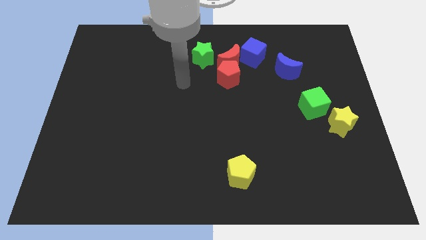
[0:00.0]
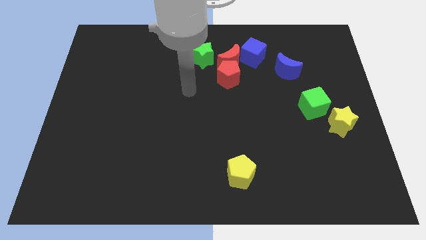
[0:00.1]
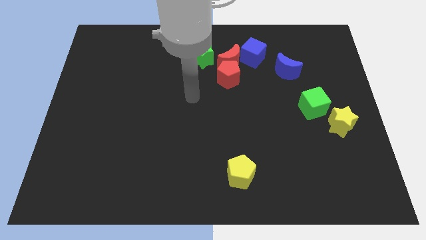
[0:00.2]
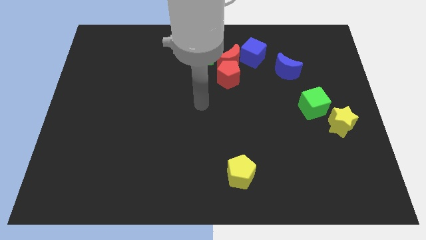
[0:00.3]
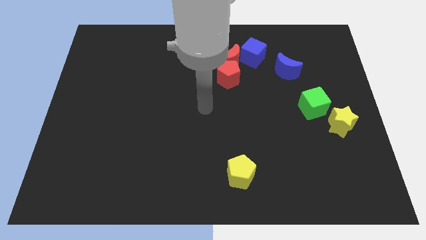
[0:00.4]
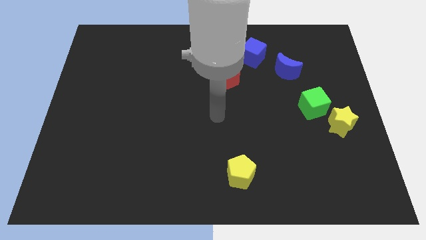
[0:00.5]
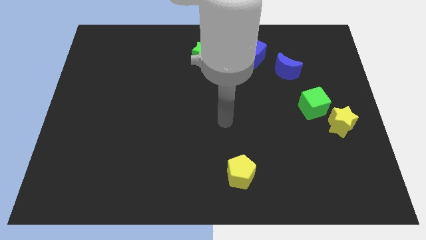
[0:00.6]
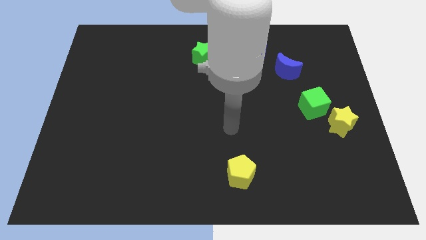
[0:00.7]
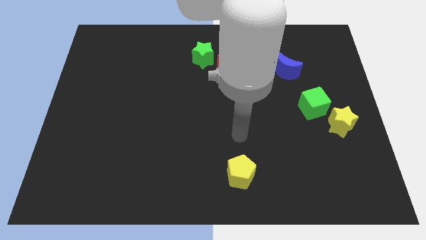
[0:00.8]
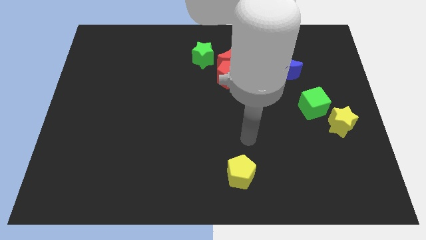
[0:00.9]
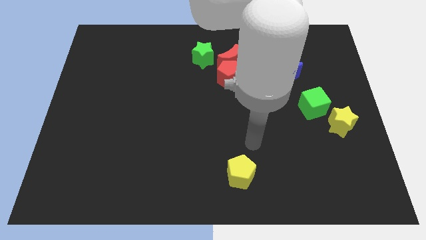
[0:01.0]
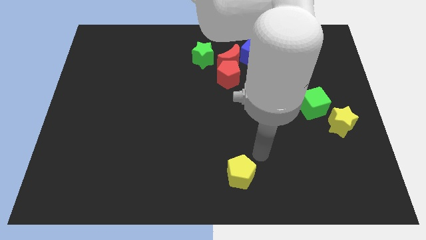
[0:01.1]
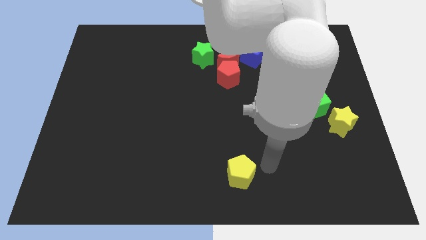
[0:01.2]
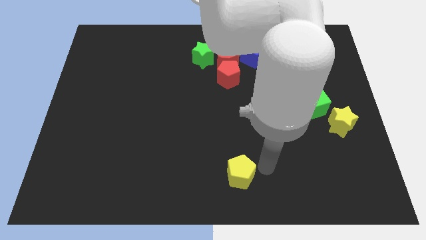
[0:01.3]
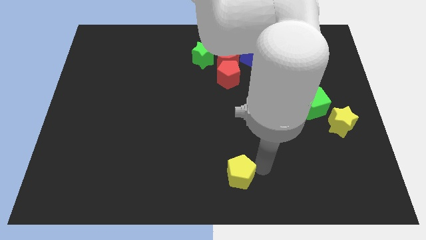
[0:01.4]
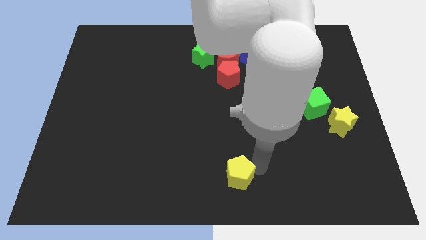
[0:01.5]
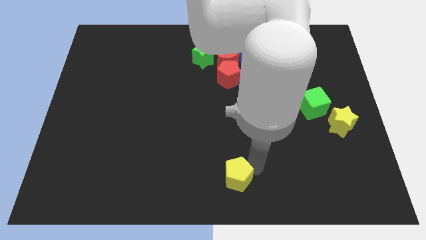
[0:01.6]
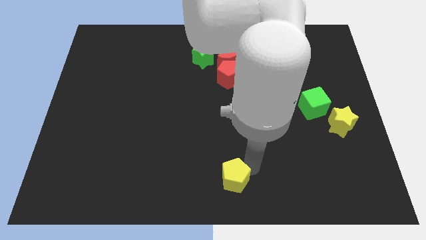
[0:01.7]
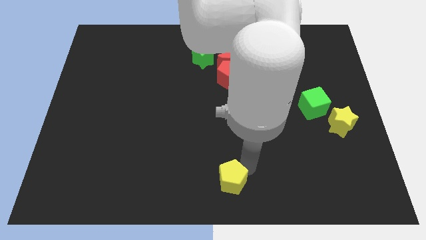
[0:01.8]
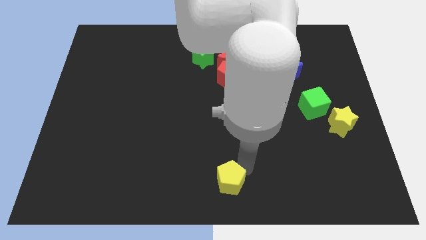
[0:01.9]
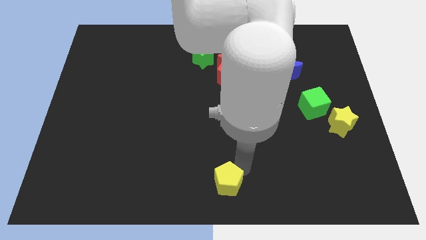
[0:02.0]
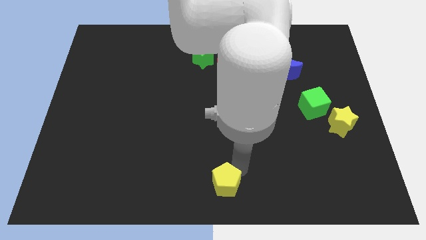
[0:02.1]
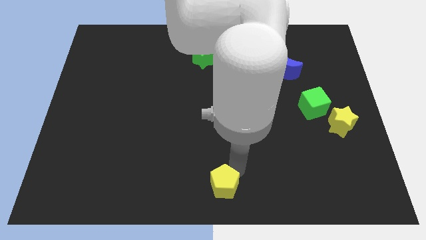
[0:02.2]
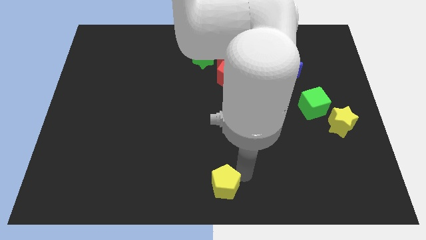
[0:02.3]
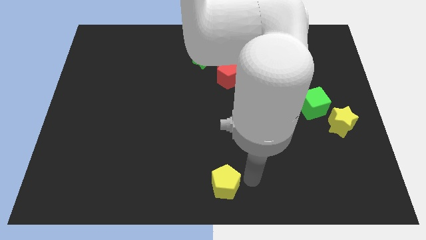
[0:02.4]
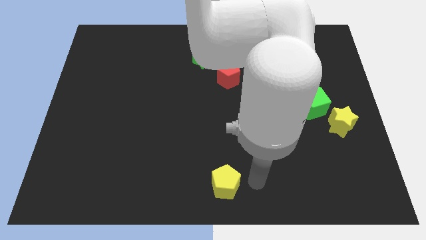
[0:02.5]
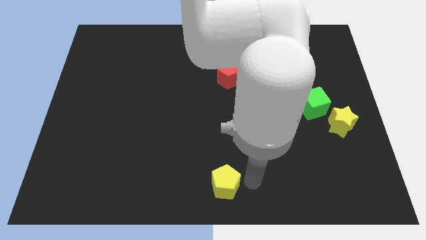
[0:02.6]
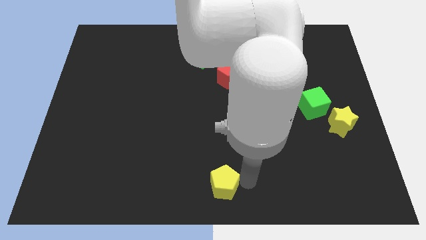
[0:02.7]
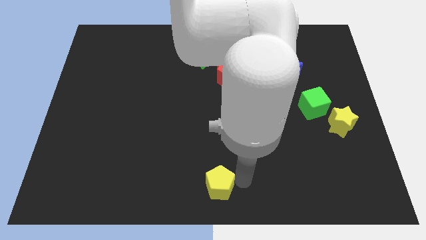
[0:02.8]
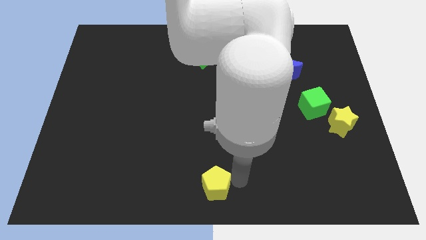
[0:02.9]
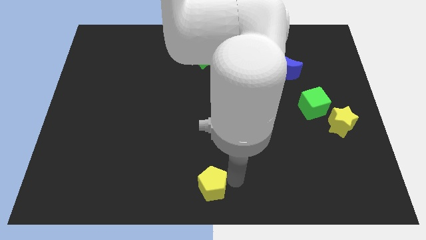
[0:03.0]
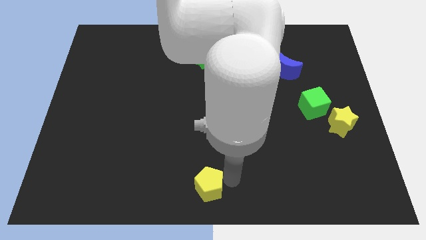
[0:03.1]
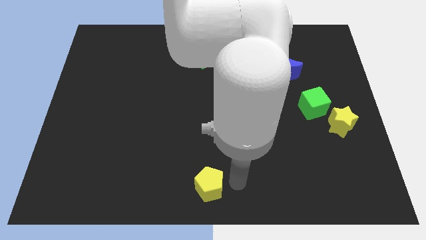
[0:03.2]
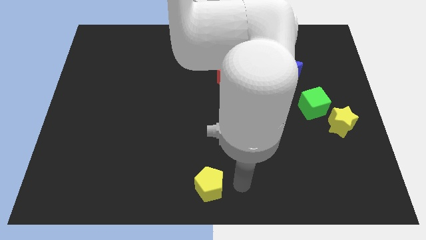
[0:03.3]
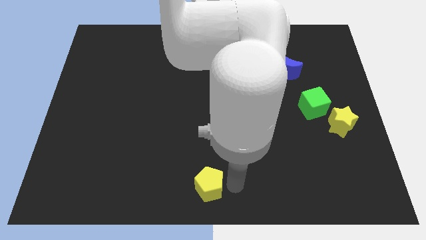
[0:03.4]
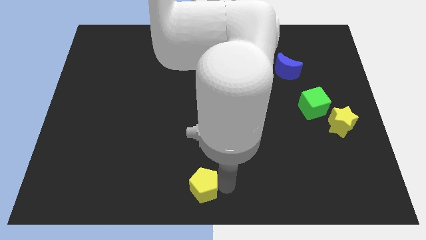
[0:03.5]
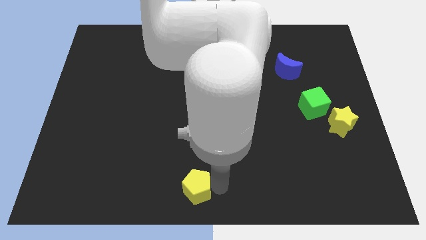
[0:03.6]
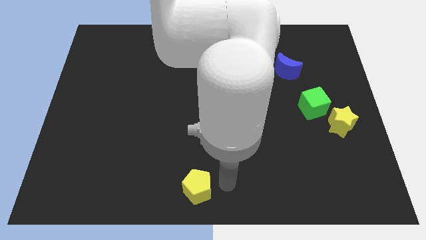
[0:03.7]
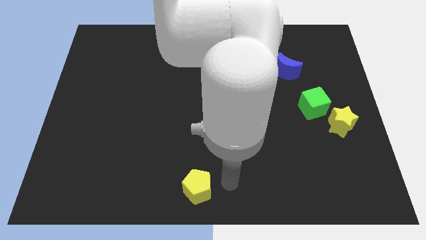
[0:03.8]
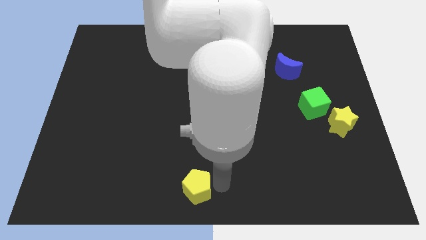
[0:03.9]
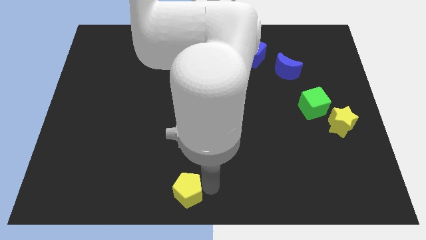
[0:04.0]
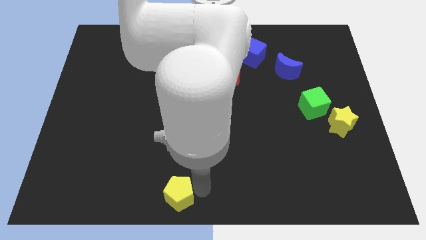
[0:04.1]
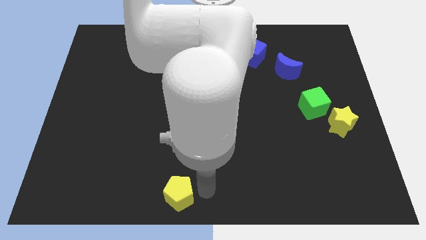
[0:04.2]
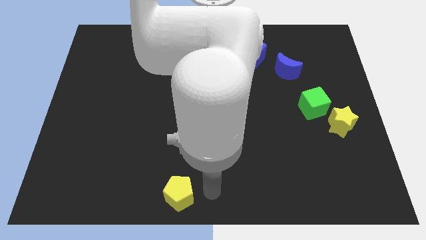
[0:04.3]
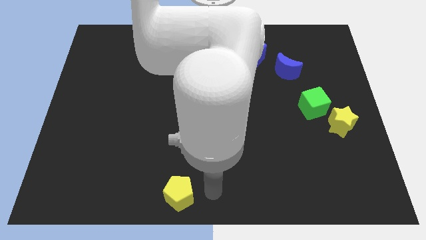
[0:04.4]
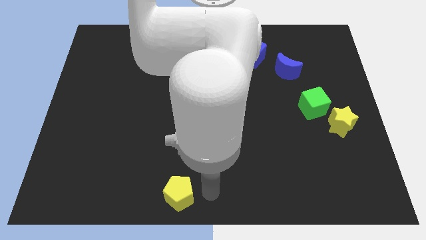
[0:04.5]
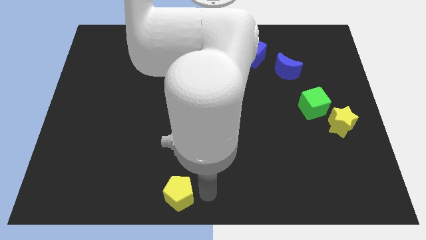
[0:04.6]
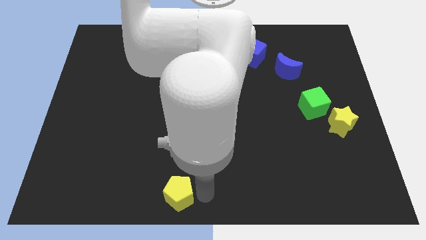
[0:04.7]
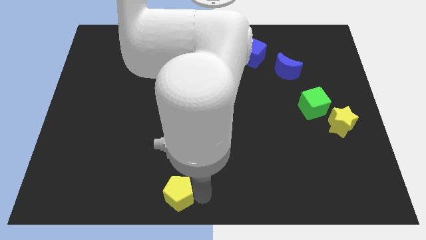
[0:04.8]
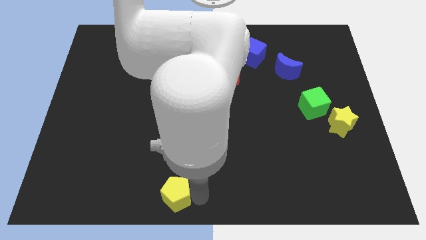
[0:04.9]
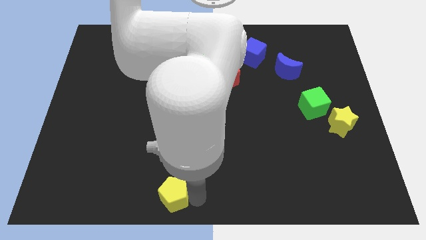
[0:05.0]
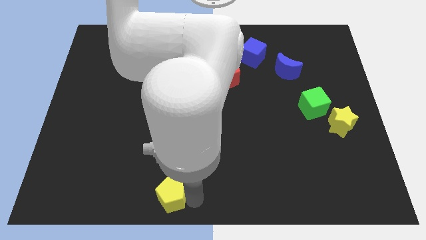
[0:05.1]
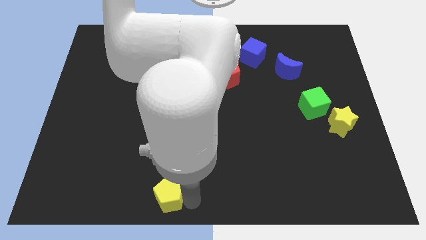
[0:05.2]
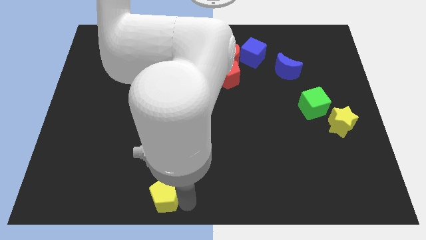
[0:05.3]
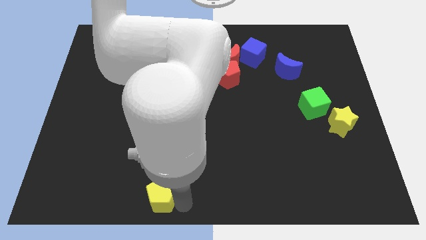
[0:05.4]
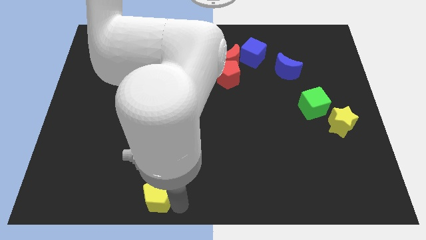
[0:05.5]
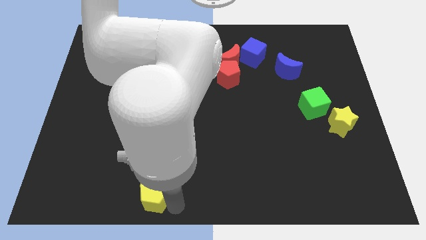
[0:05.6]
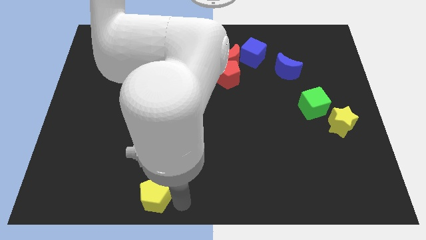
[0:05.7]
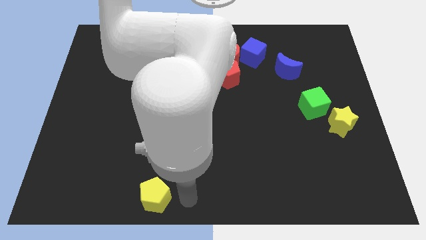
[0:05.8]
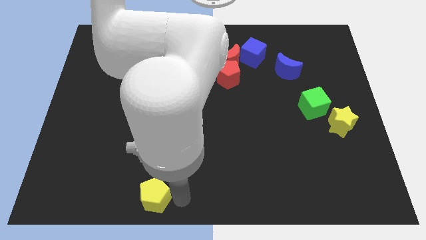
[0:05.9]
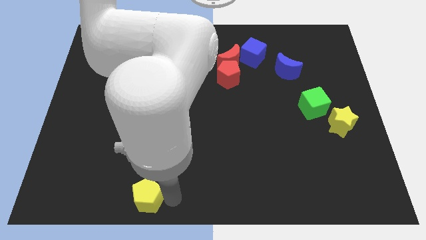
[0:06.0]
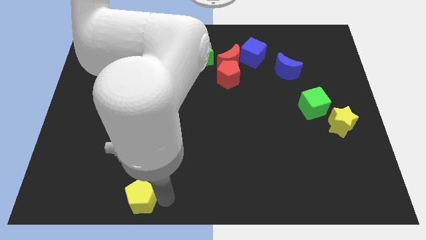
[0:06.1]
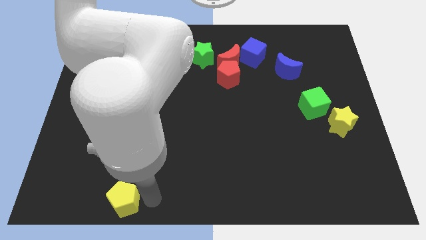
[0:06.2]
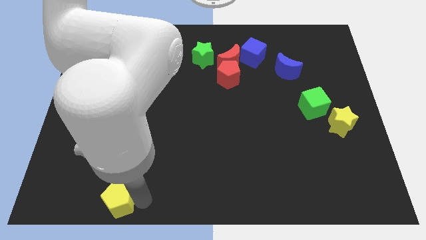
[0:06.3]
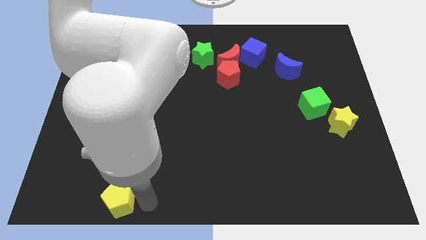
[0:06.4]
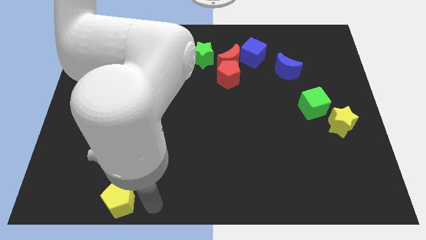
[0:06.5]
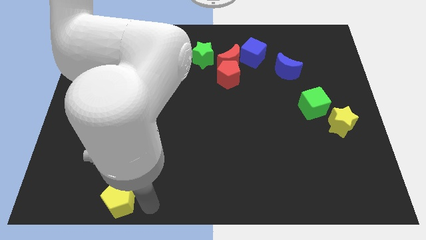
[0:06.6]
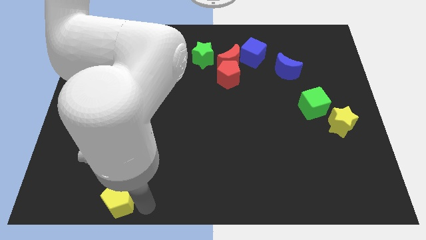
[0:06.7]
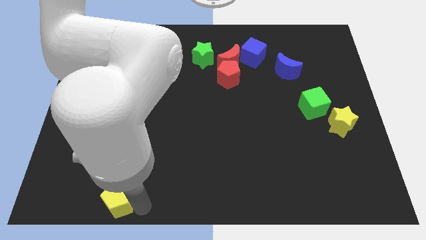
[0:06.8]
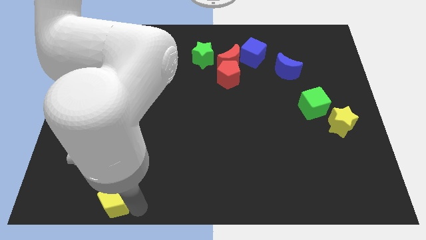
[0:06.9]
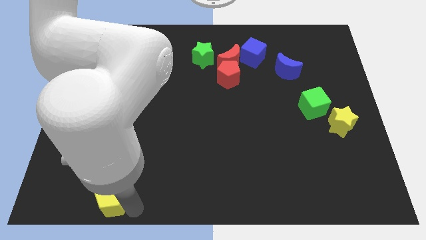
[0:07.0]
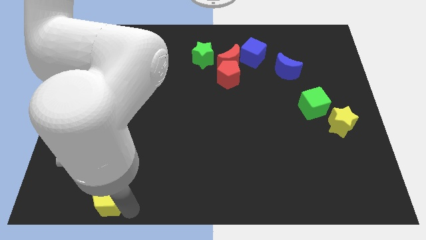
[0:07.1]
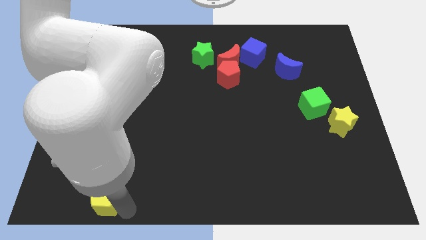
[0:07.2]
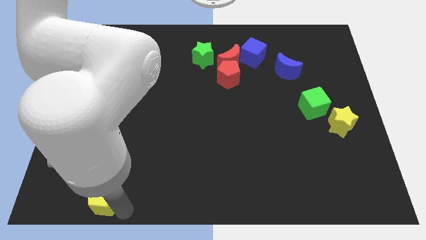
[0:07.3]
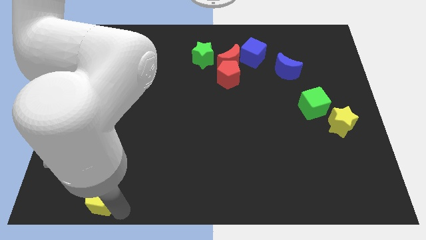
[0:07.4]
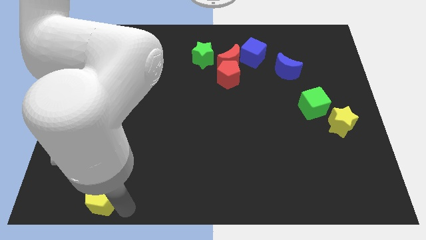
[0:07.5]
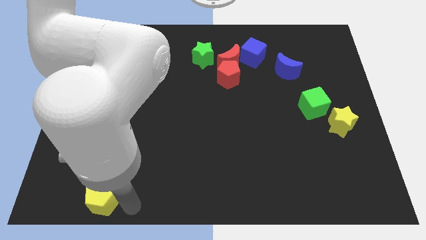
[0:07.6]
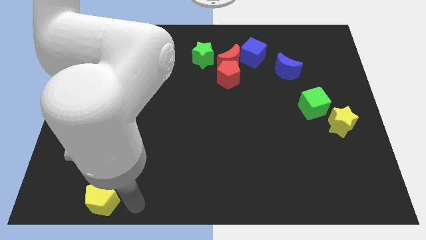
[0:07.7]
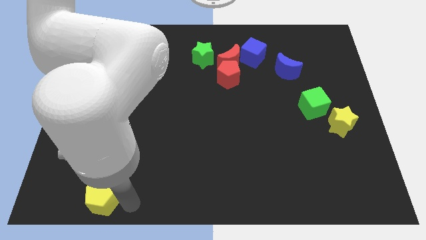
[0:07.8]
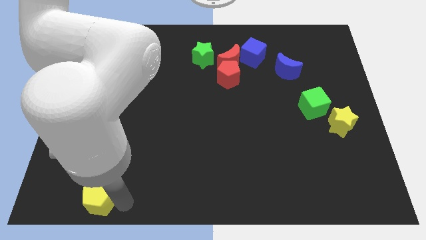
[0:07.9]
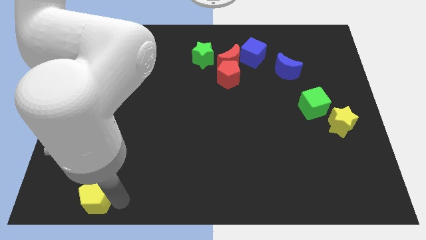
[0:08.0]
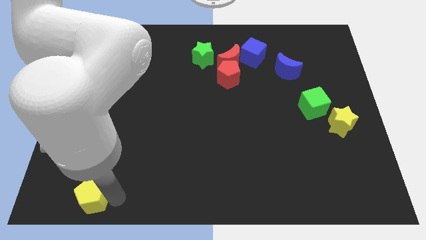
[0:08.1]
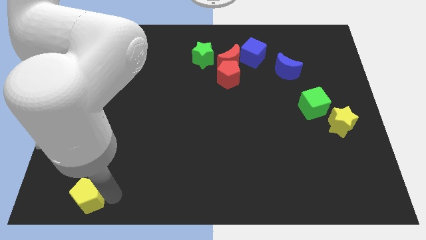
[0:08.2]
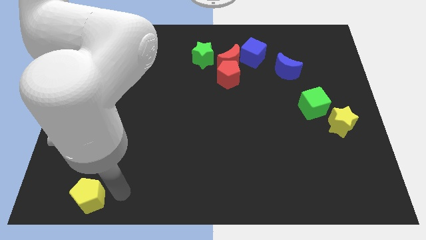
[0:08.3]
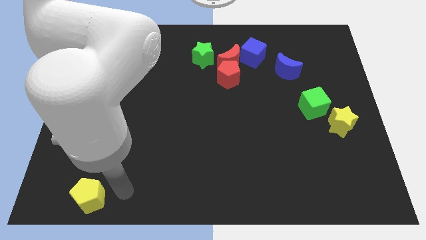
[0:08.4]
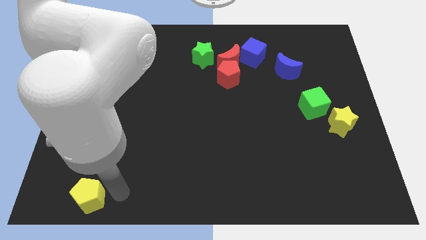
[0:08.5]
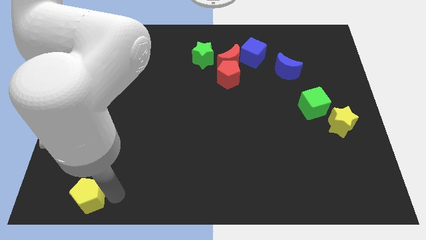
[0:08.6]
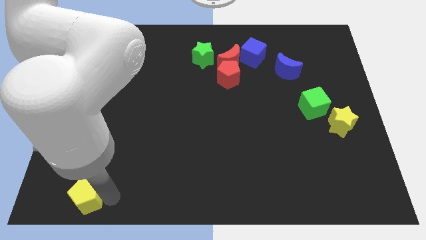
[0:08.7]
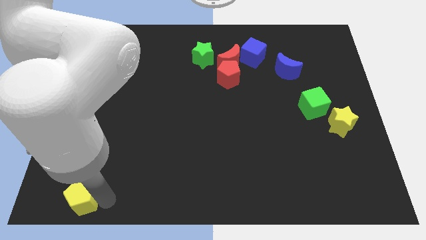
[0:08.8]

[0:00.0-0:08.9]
put the yellow pentagon to the bottom left corner
